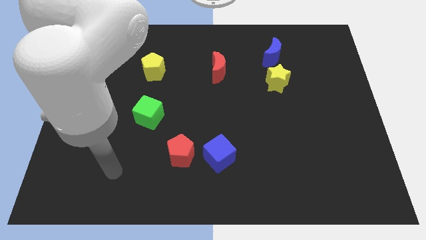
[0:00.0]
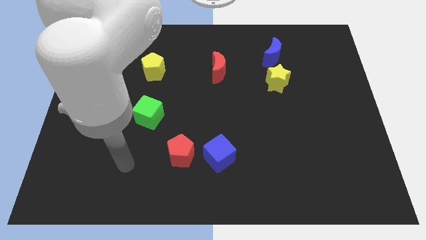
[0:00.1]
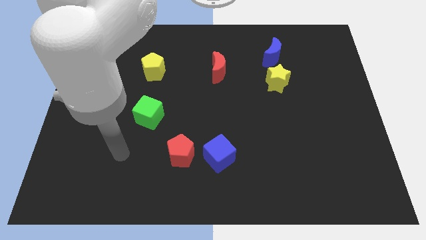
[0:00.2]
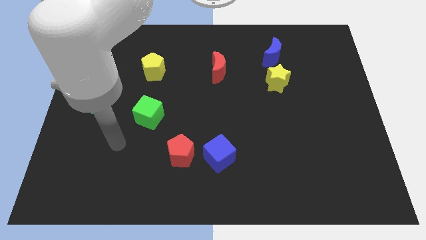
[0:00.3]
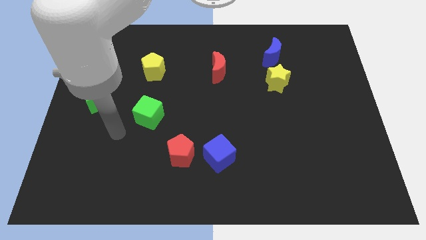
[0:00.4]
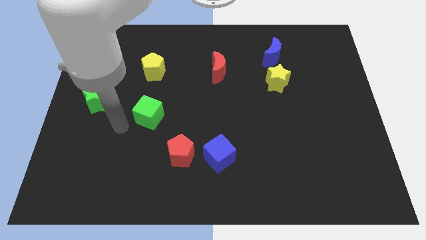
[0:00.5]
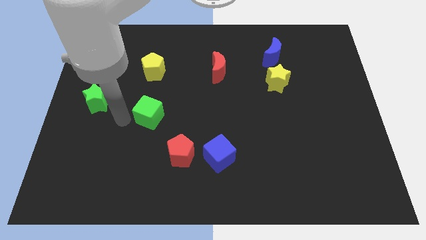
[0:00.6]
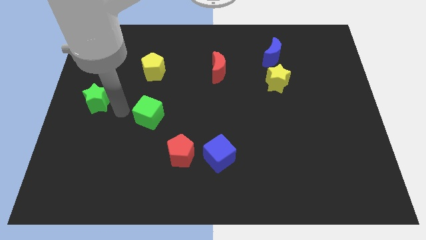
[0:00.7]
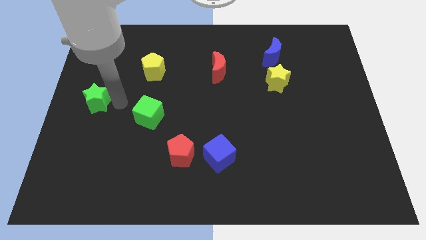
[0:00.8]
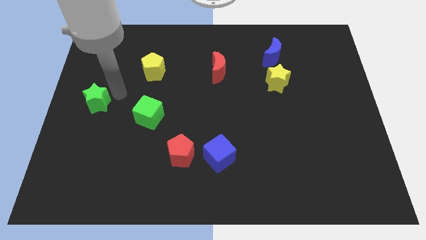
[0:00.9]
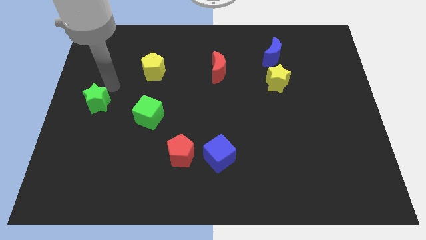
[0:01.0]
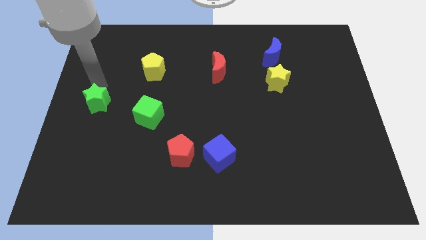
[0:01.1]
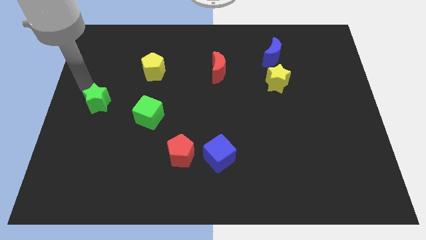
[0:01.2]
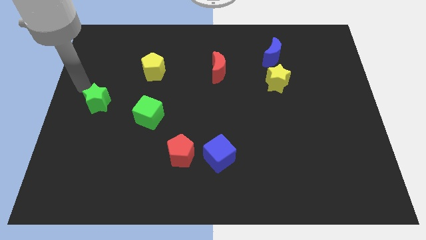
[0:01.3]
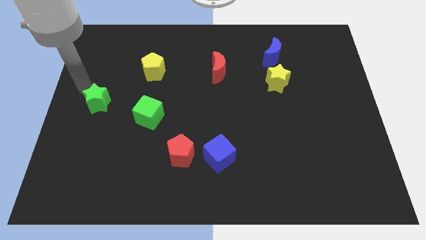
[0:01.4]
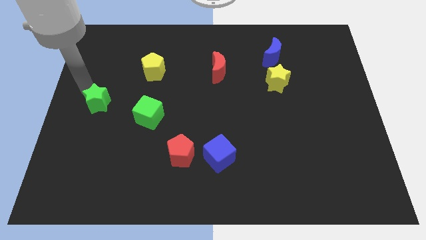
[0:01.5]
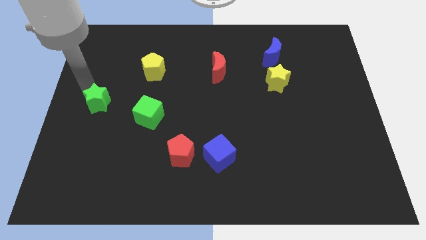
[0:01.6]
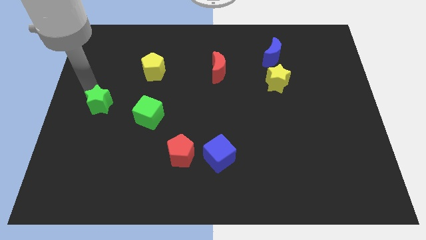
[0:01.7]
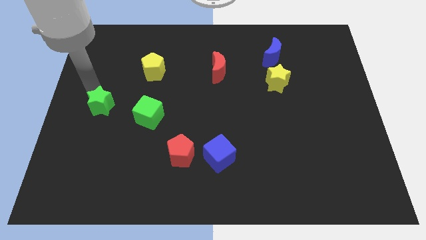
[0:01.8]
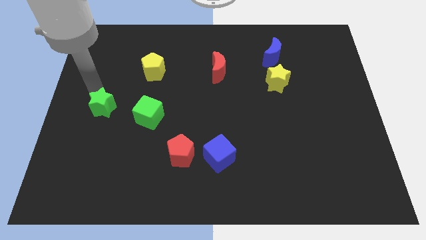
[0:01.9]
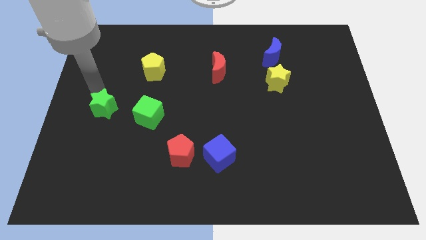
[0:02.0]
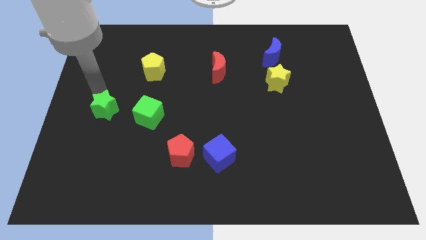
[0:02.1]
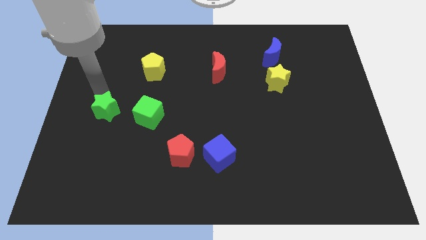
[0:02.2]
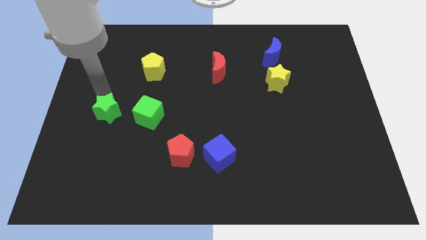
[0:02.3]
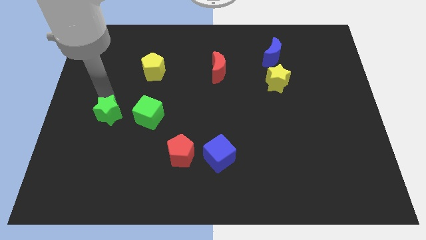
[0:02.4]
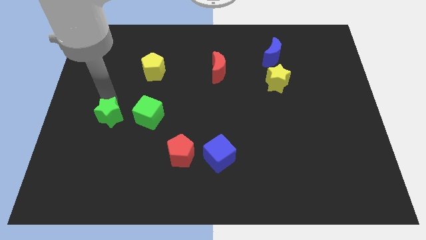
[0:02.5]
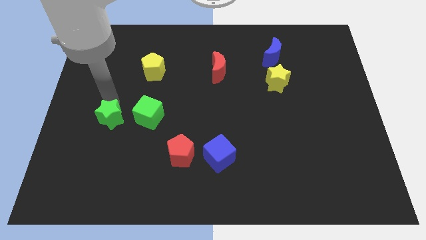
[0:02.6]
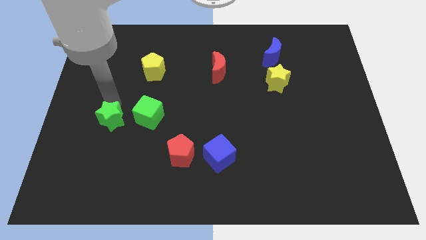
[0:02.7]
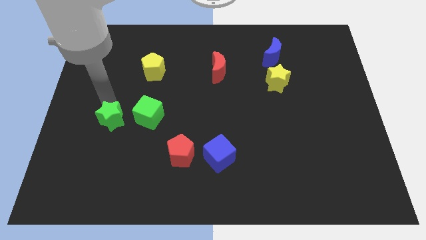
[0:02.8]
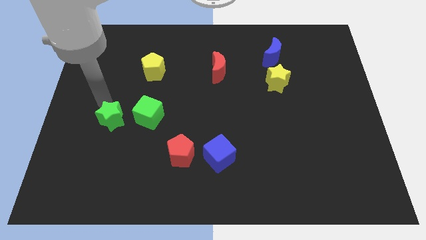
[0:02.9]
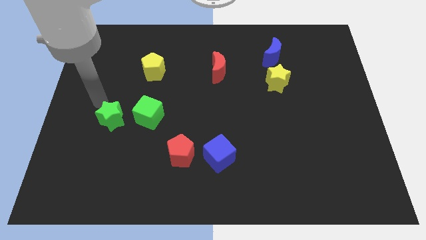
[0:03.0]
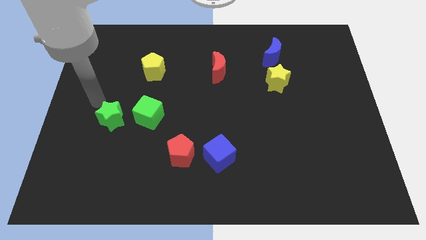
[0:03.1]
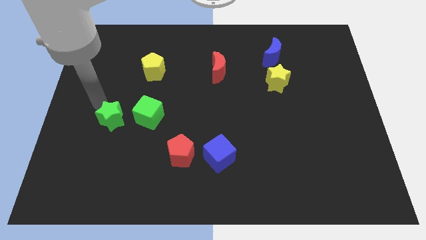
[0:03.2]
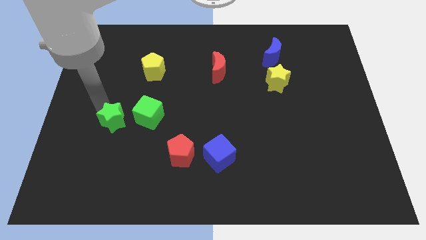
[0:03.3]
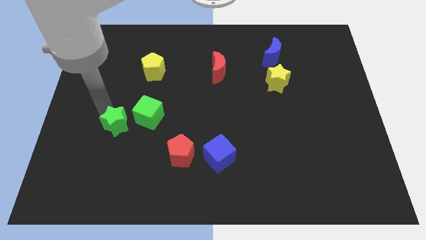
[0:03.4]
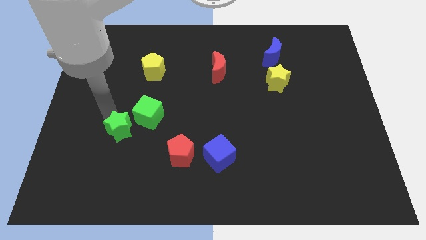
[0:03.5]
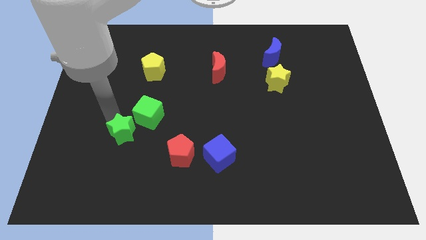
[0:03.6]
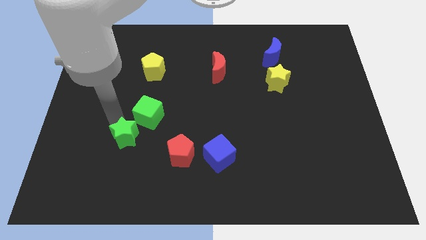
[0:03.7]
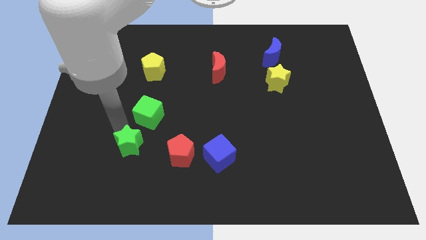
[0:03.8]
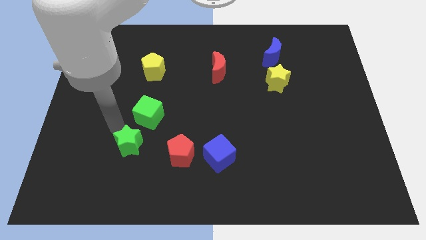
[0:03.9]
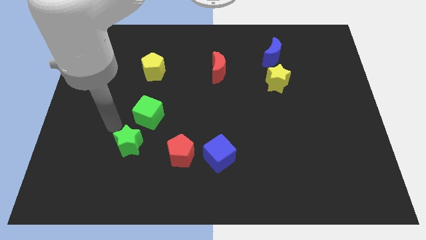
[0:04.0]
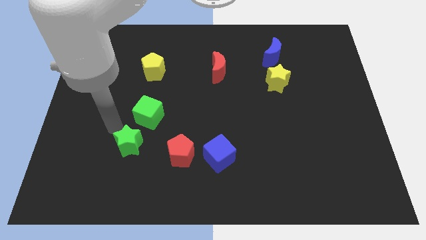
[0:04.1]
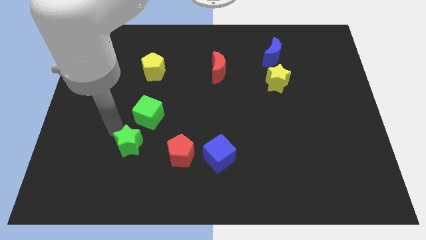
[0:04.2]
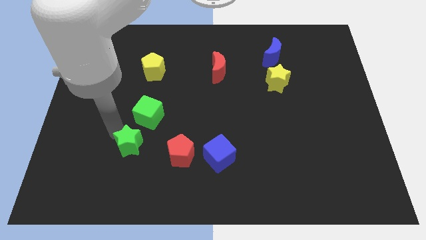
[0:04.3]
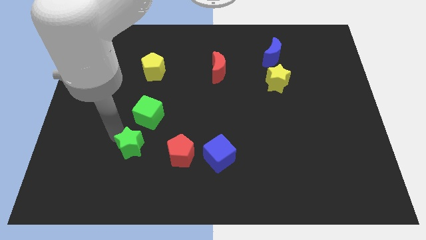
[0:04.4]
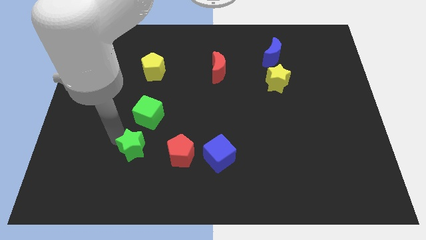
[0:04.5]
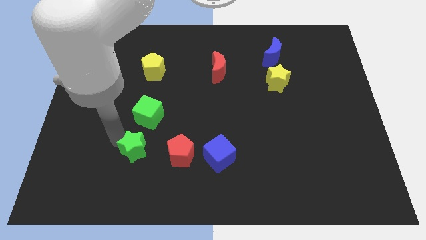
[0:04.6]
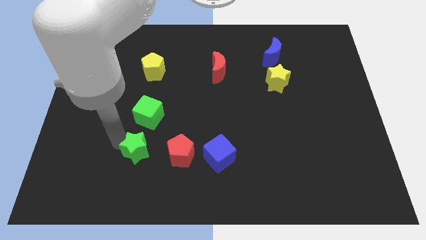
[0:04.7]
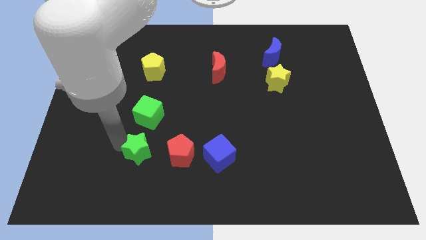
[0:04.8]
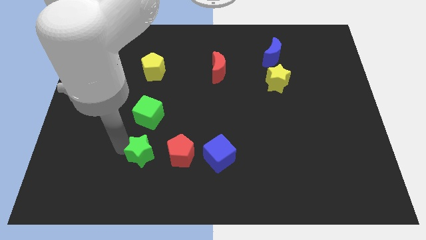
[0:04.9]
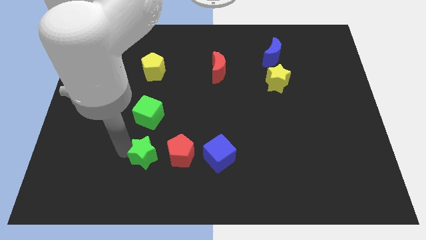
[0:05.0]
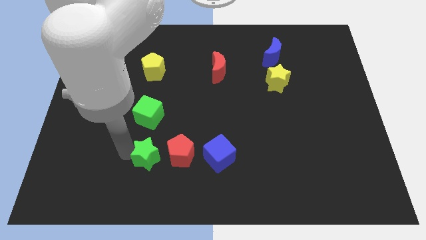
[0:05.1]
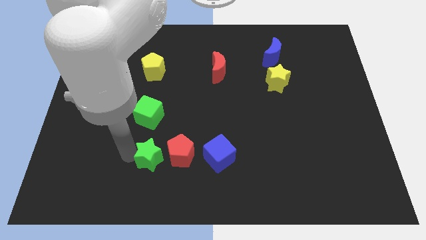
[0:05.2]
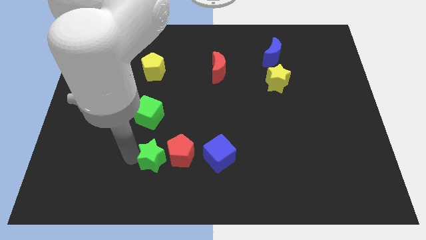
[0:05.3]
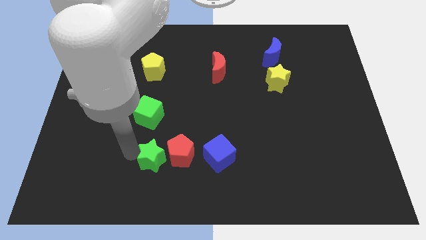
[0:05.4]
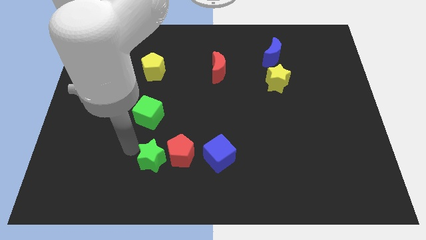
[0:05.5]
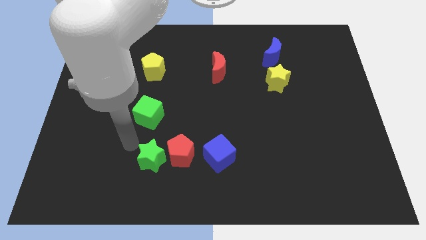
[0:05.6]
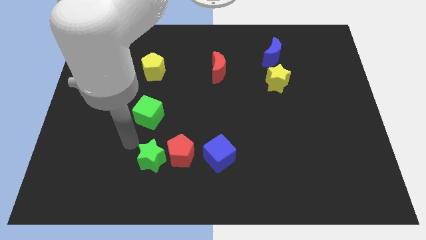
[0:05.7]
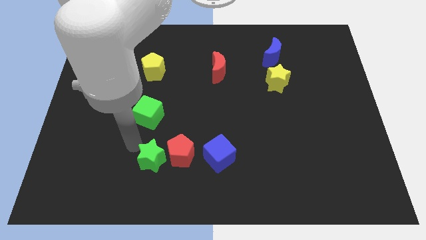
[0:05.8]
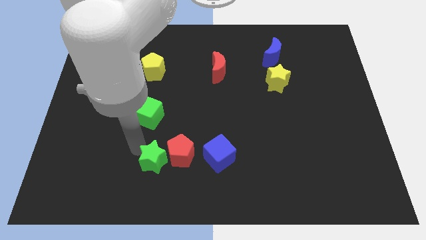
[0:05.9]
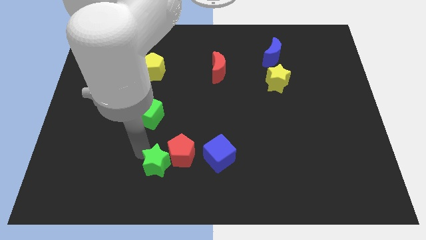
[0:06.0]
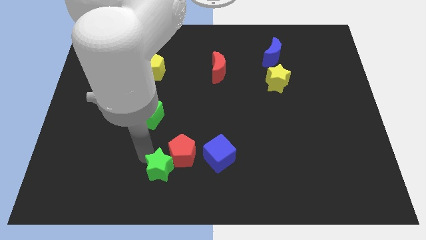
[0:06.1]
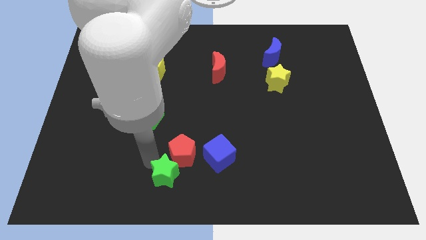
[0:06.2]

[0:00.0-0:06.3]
move the green star to the bottom side

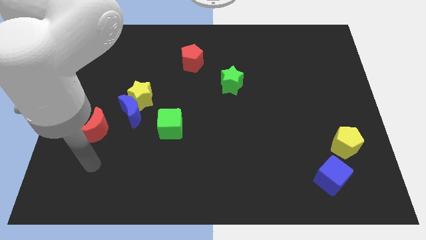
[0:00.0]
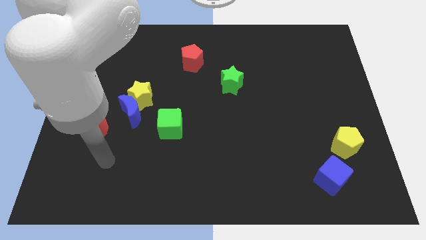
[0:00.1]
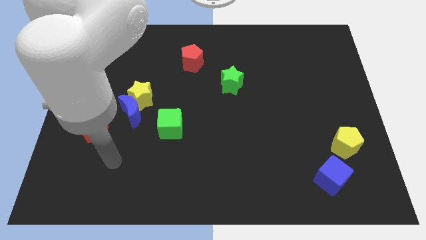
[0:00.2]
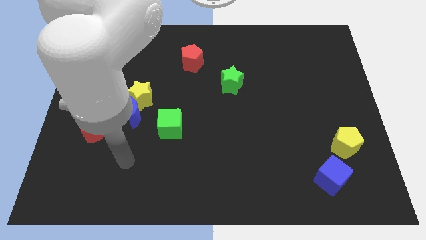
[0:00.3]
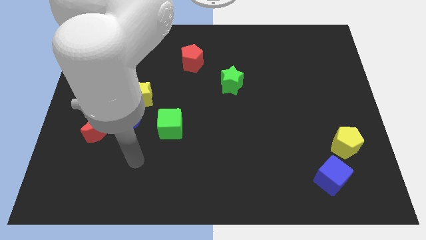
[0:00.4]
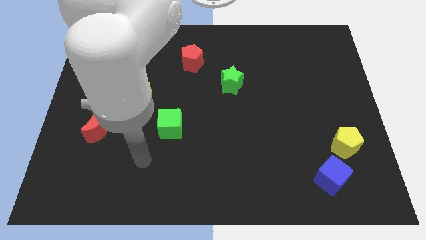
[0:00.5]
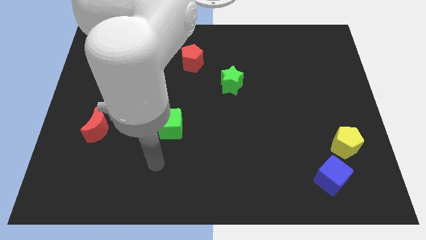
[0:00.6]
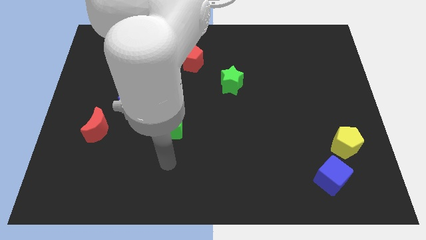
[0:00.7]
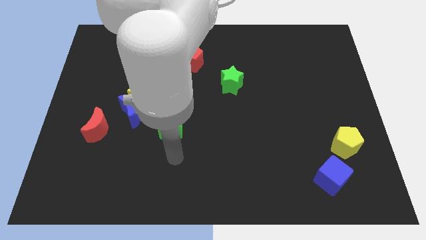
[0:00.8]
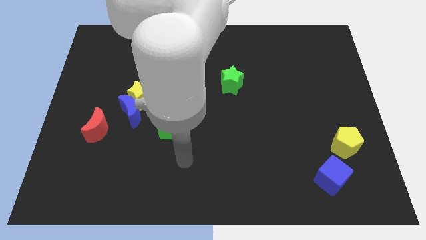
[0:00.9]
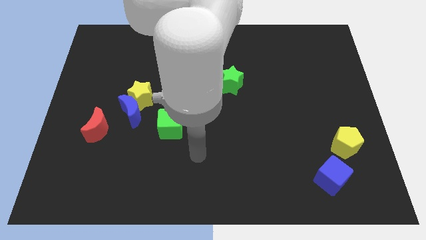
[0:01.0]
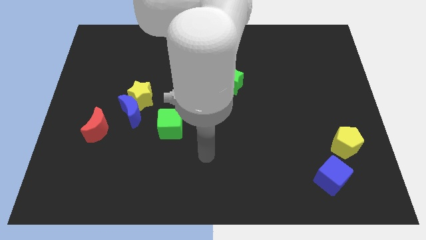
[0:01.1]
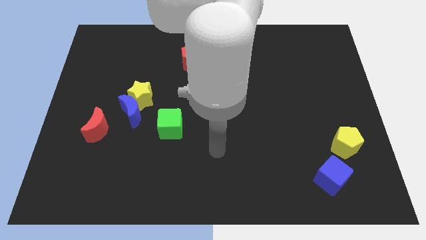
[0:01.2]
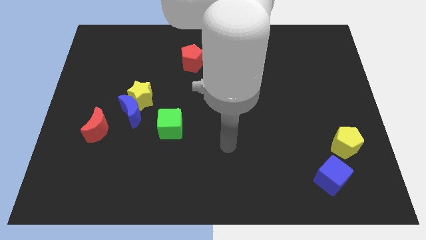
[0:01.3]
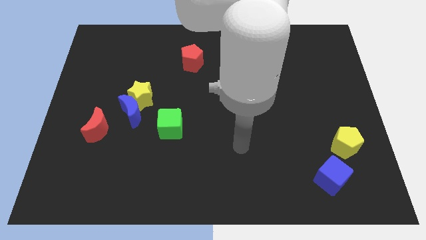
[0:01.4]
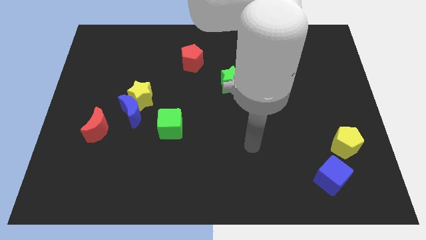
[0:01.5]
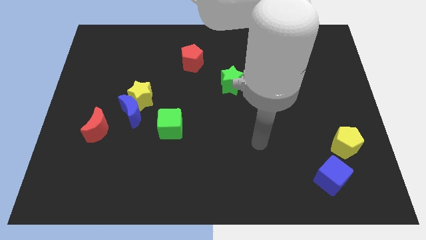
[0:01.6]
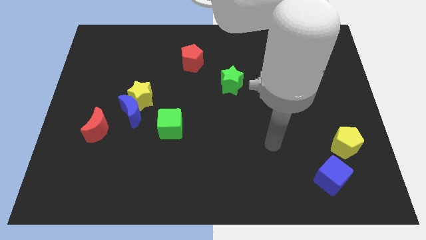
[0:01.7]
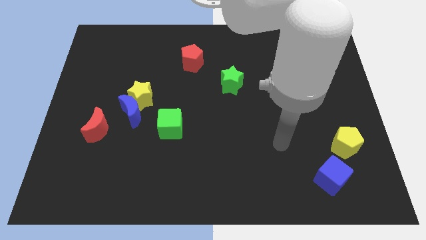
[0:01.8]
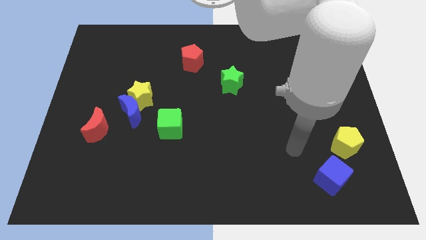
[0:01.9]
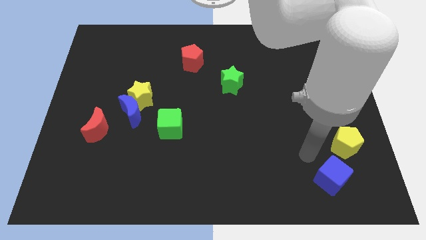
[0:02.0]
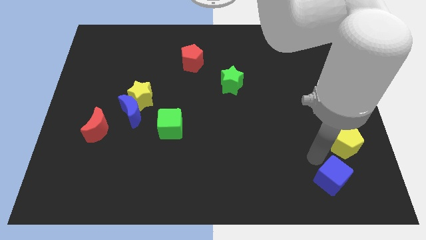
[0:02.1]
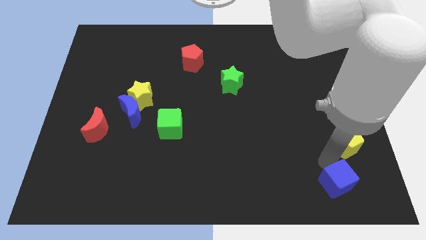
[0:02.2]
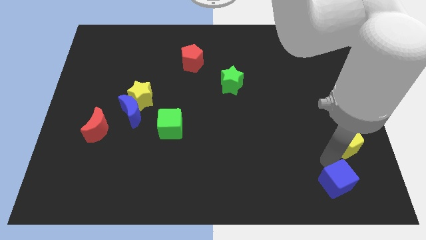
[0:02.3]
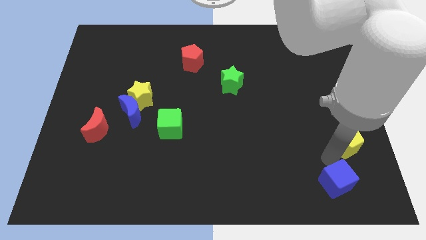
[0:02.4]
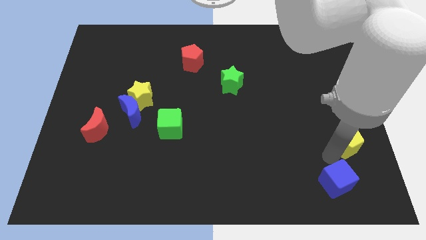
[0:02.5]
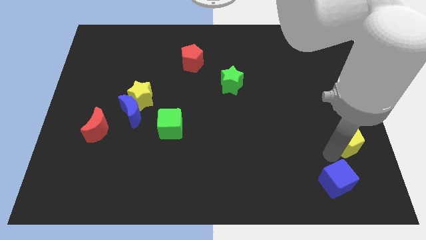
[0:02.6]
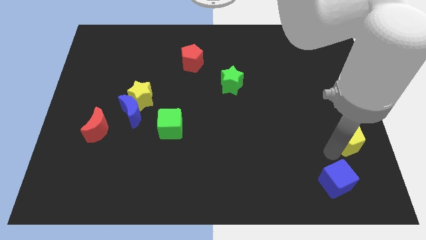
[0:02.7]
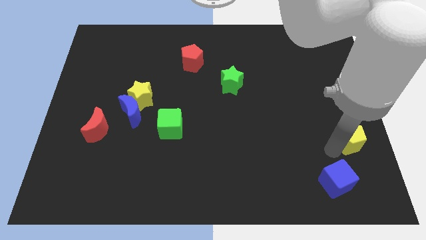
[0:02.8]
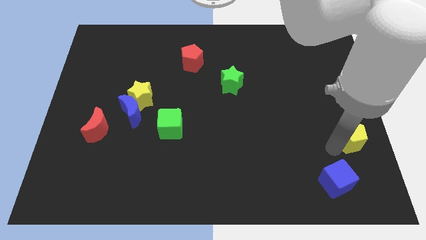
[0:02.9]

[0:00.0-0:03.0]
put the yellow pentagon to the center right
